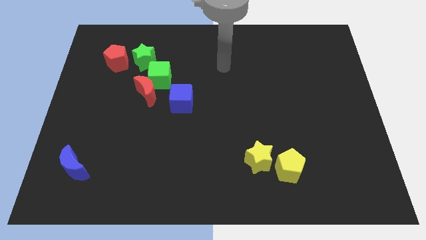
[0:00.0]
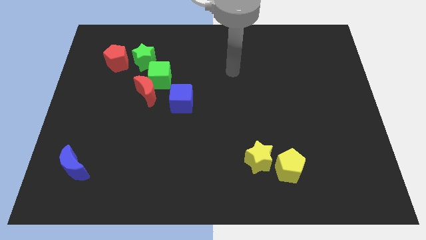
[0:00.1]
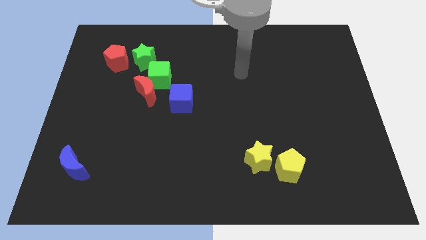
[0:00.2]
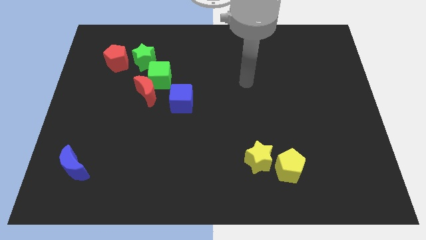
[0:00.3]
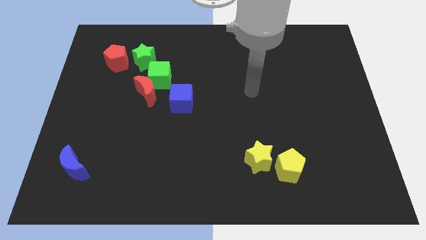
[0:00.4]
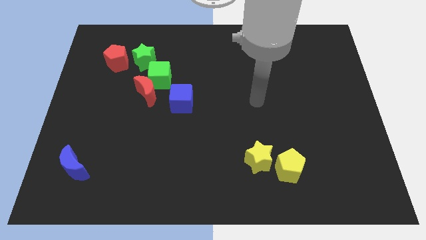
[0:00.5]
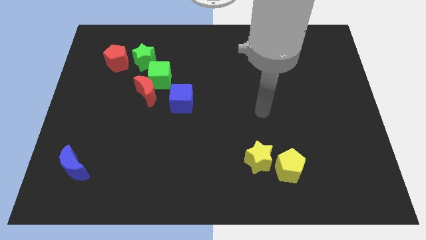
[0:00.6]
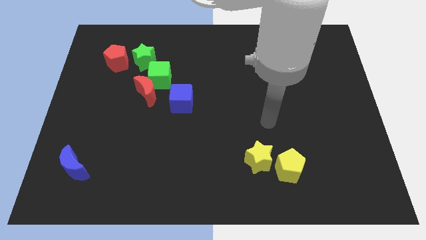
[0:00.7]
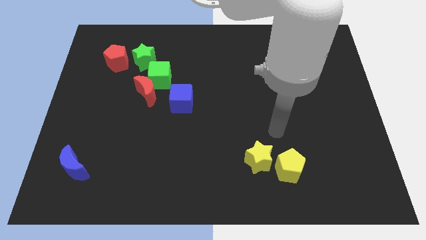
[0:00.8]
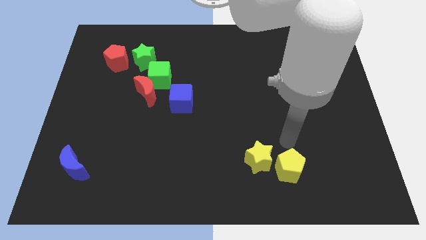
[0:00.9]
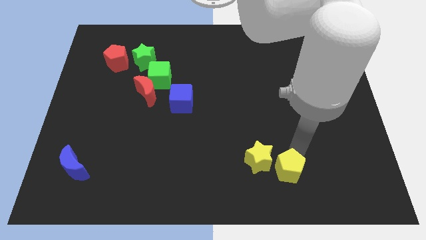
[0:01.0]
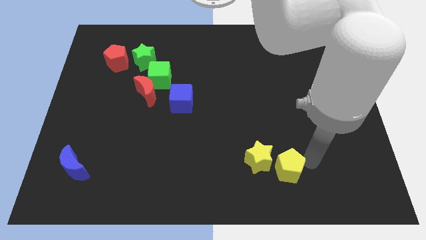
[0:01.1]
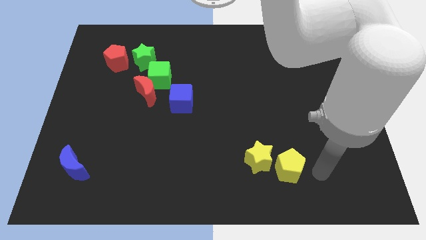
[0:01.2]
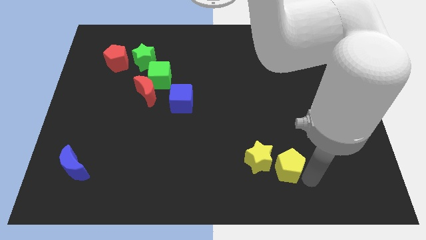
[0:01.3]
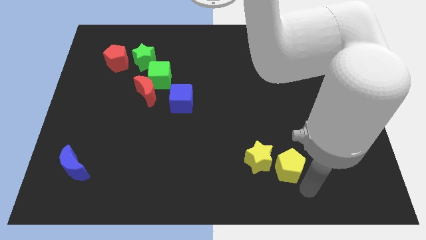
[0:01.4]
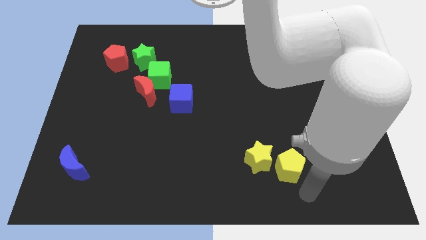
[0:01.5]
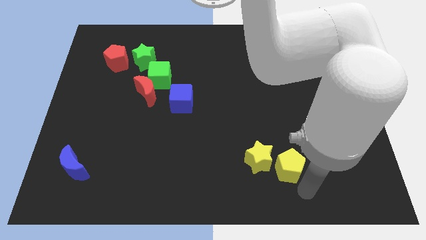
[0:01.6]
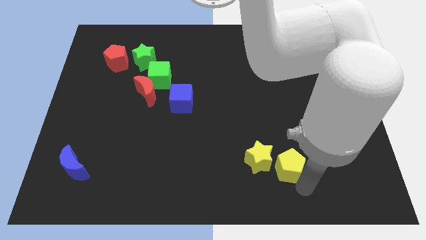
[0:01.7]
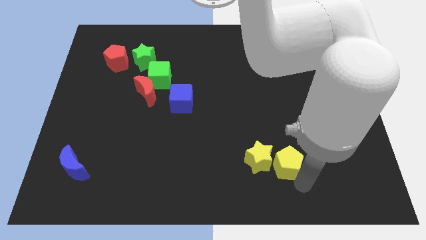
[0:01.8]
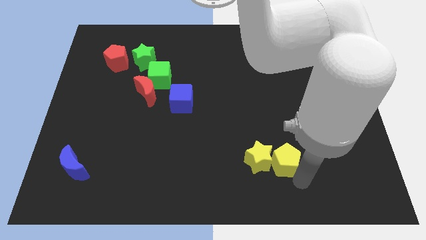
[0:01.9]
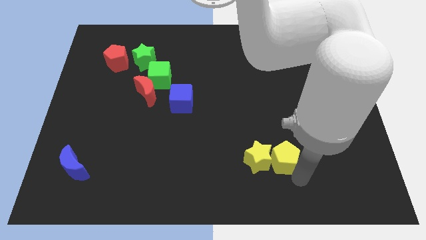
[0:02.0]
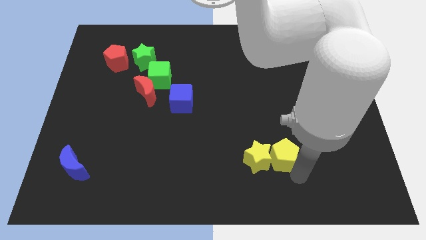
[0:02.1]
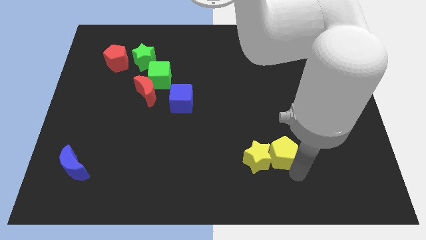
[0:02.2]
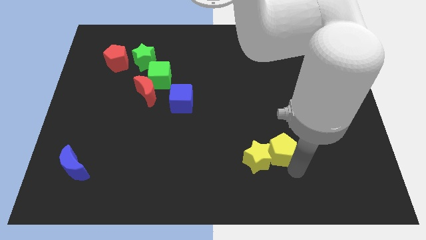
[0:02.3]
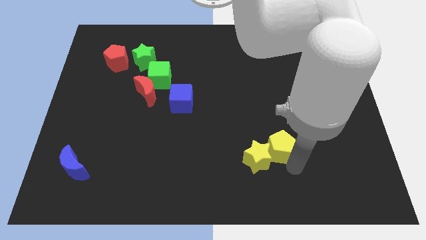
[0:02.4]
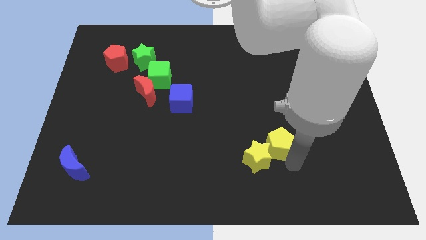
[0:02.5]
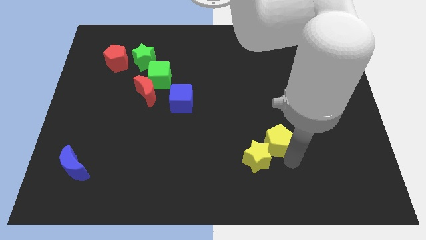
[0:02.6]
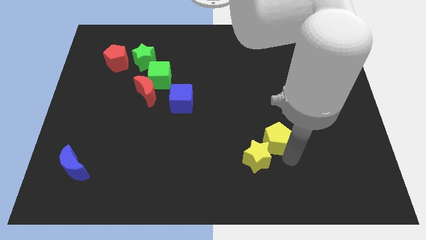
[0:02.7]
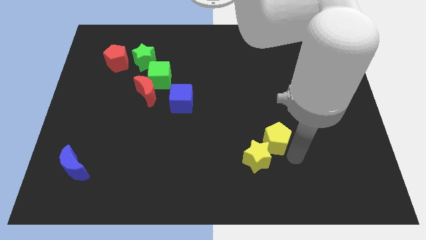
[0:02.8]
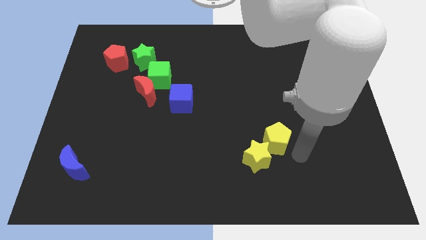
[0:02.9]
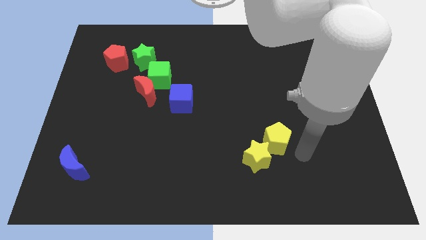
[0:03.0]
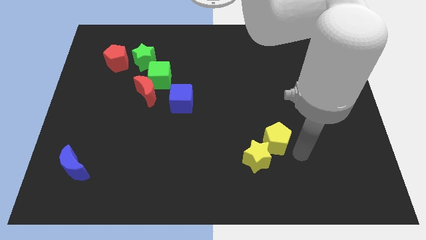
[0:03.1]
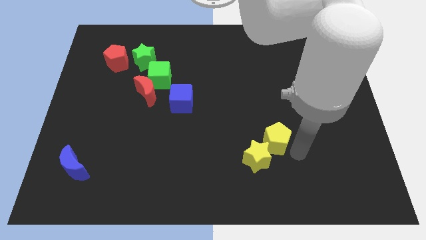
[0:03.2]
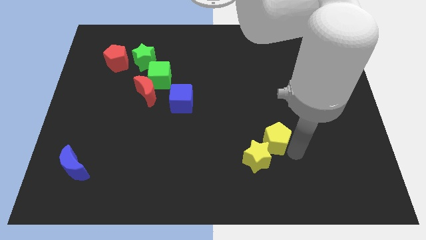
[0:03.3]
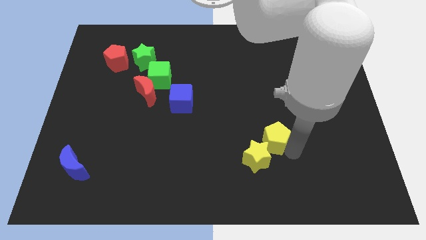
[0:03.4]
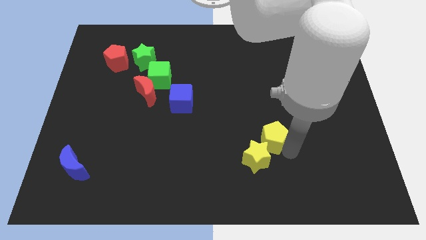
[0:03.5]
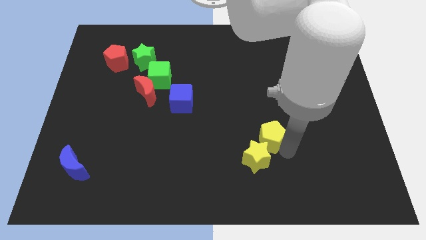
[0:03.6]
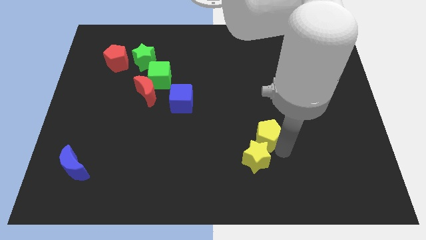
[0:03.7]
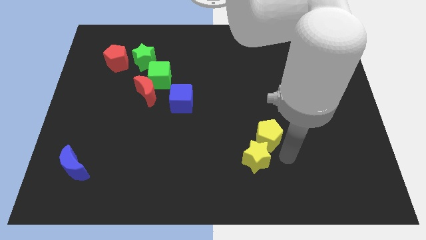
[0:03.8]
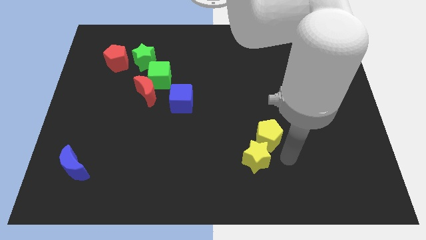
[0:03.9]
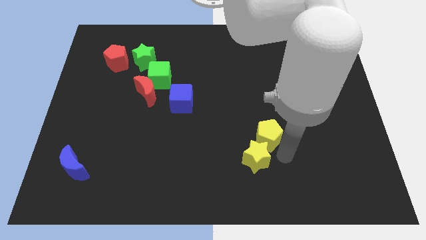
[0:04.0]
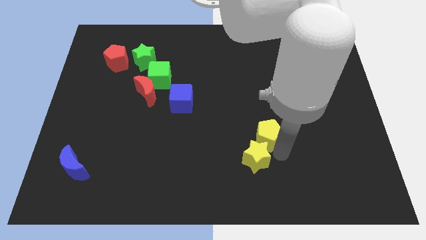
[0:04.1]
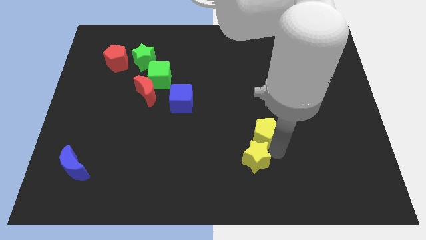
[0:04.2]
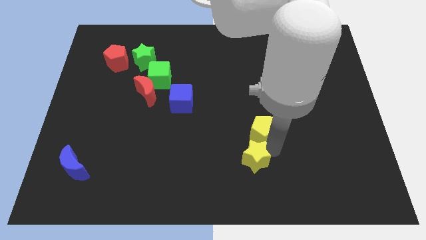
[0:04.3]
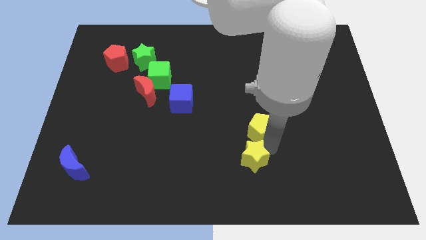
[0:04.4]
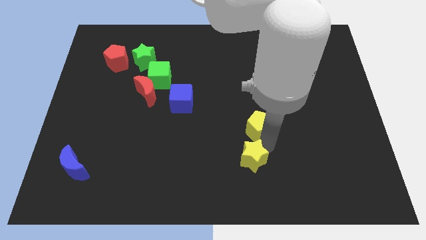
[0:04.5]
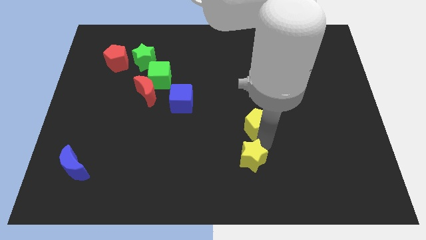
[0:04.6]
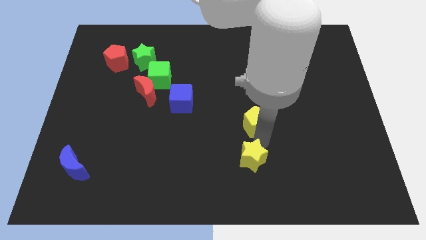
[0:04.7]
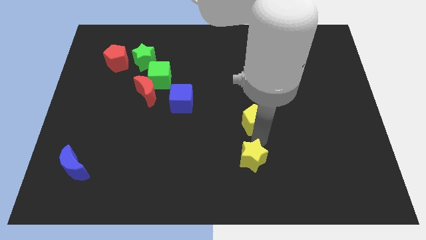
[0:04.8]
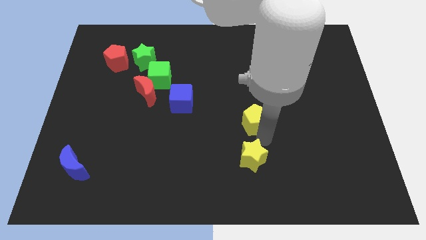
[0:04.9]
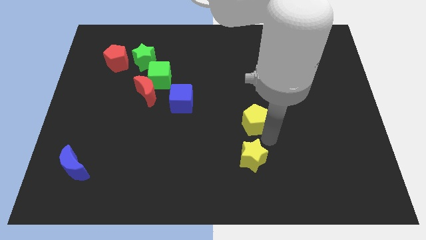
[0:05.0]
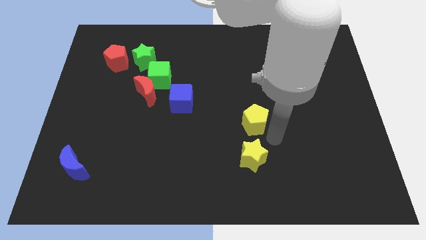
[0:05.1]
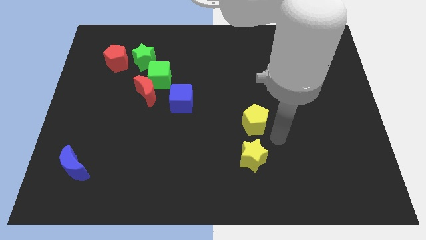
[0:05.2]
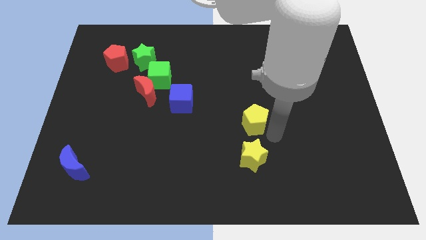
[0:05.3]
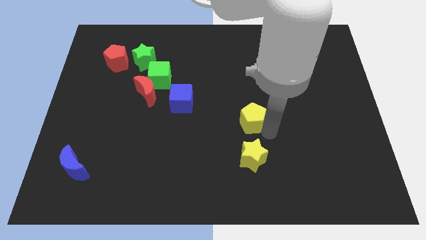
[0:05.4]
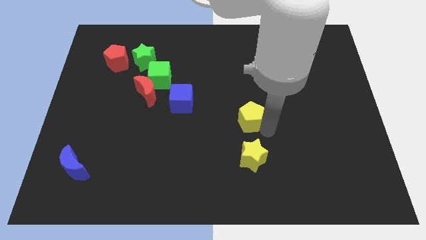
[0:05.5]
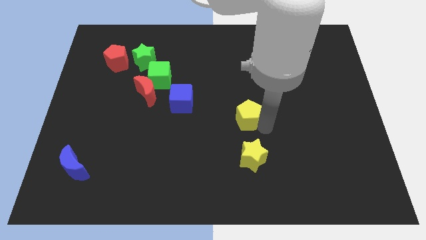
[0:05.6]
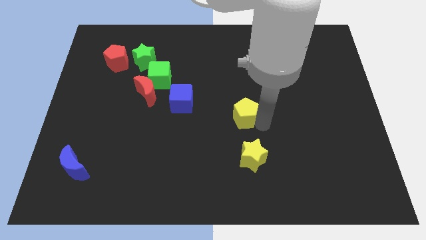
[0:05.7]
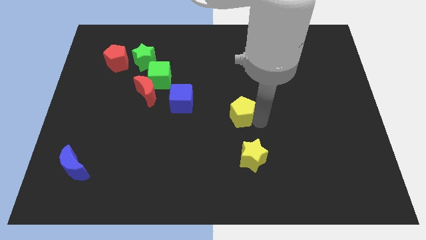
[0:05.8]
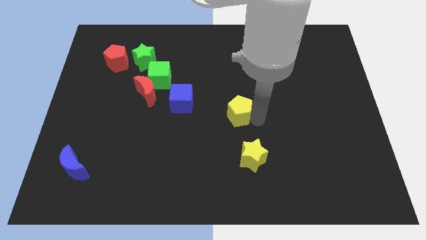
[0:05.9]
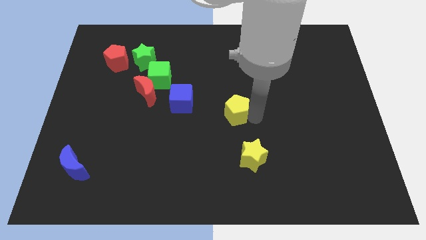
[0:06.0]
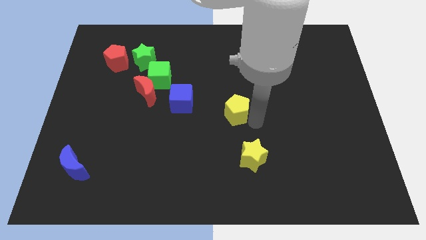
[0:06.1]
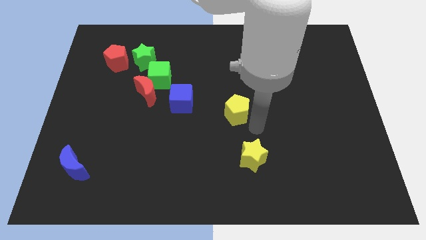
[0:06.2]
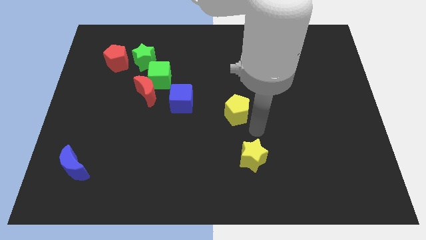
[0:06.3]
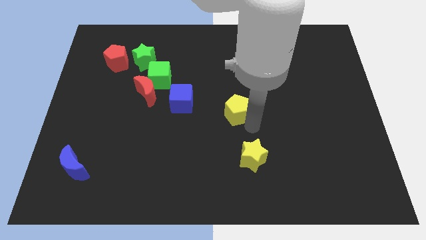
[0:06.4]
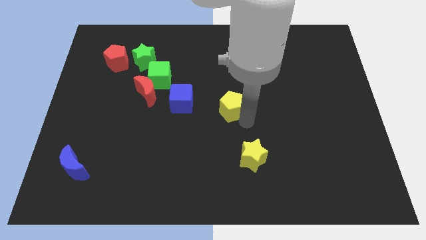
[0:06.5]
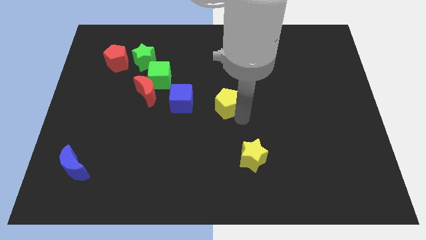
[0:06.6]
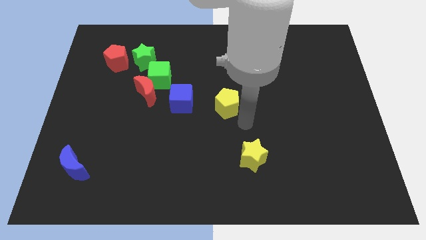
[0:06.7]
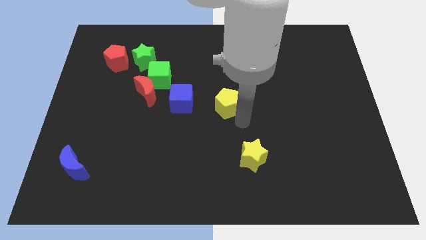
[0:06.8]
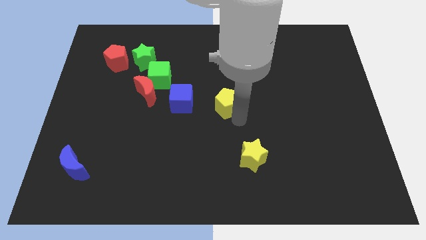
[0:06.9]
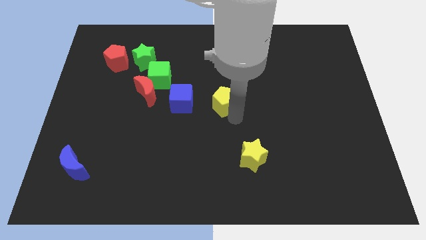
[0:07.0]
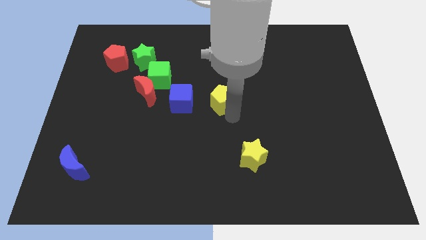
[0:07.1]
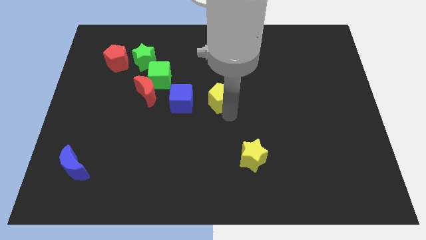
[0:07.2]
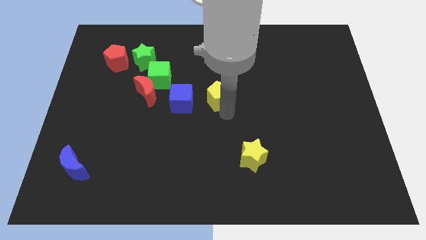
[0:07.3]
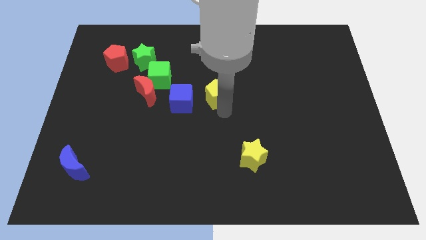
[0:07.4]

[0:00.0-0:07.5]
move the yellow pentagon diagonally up and to the right of the blue cube
